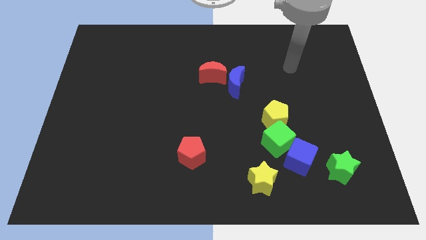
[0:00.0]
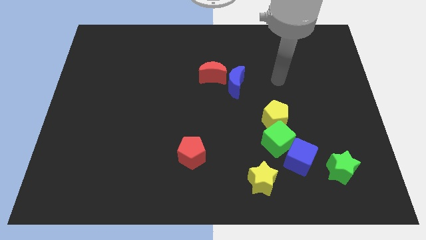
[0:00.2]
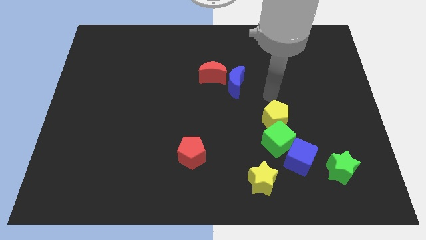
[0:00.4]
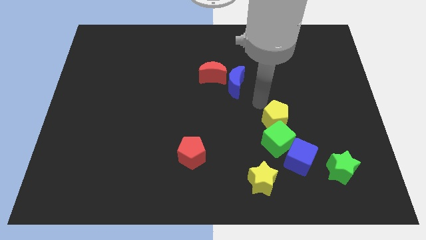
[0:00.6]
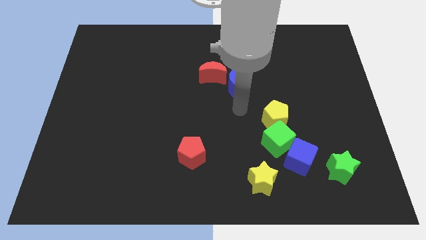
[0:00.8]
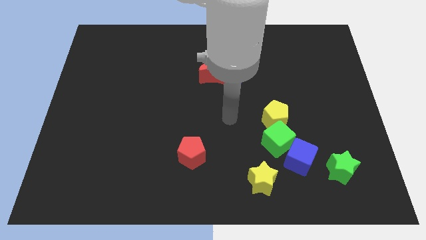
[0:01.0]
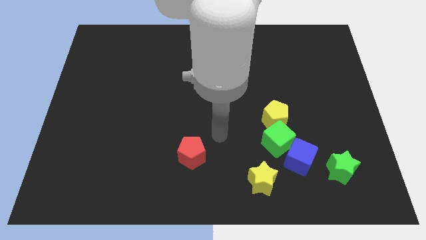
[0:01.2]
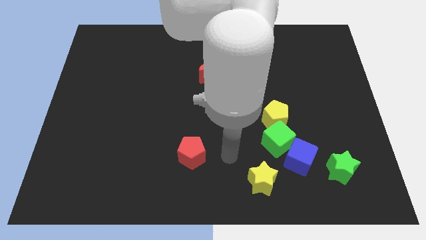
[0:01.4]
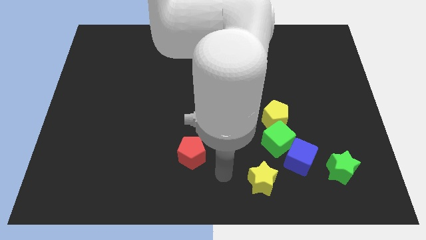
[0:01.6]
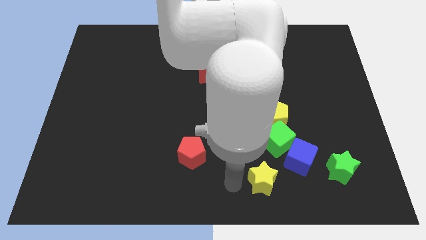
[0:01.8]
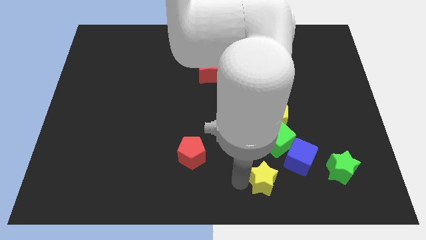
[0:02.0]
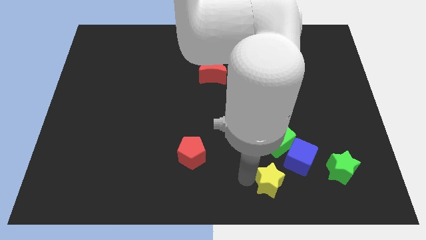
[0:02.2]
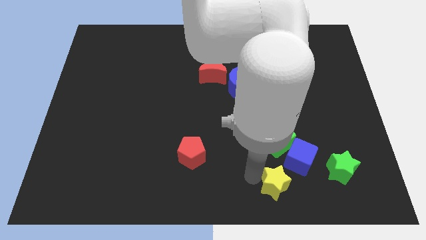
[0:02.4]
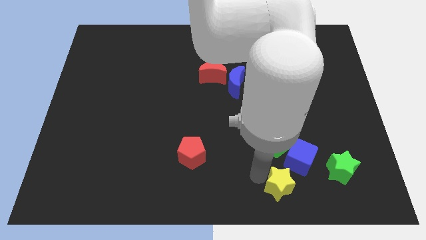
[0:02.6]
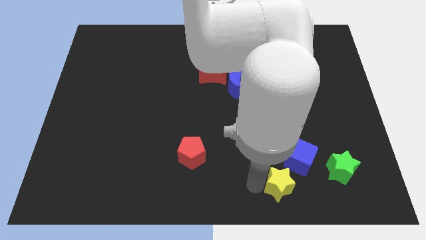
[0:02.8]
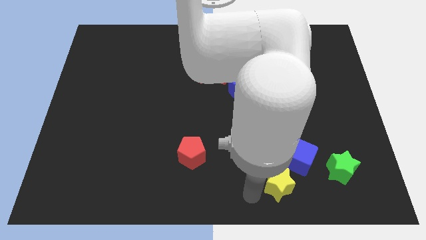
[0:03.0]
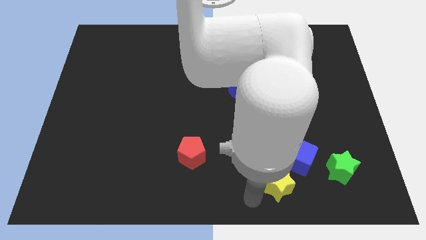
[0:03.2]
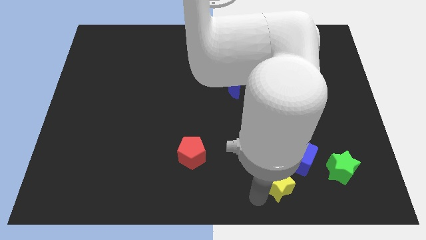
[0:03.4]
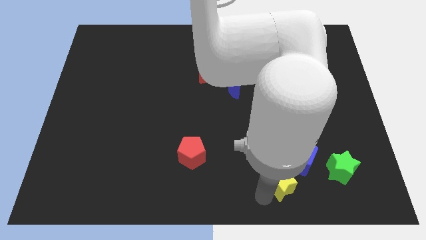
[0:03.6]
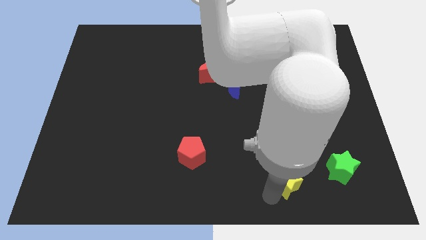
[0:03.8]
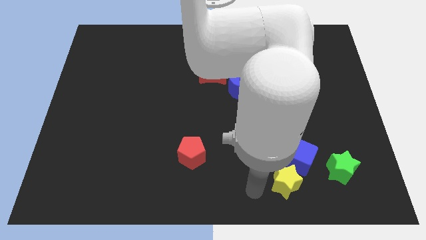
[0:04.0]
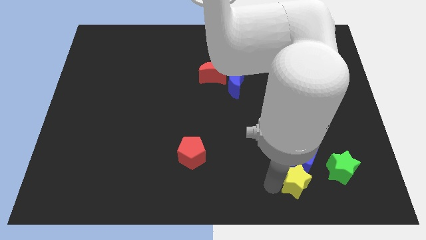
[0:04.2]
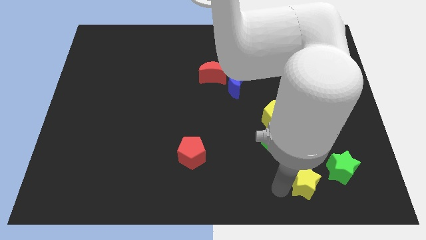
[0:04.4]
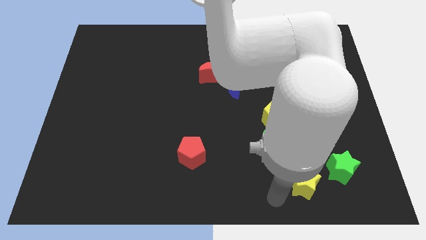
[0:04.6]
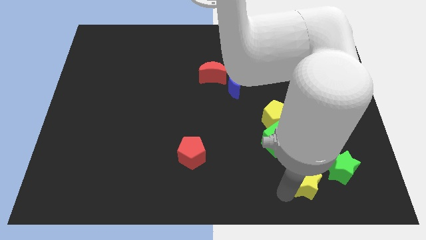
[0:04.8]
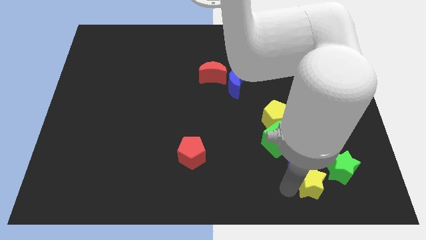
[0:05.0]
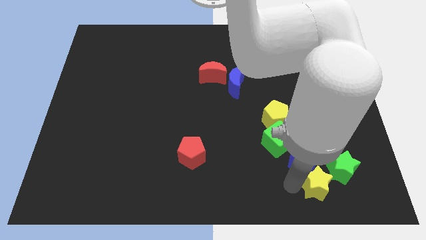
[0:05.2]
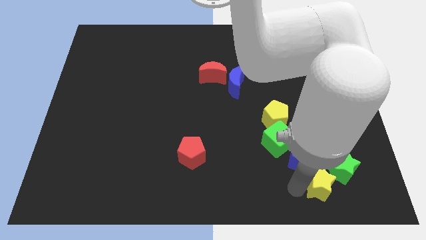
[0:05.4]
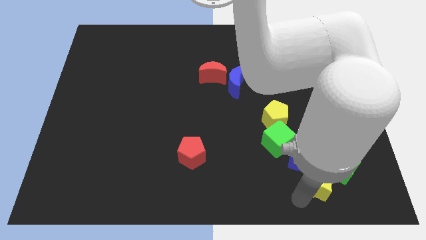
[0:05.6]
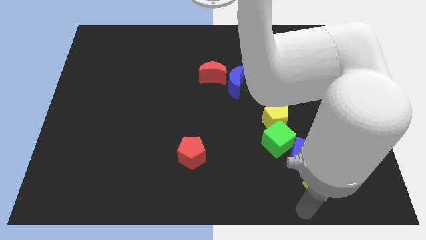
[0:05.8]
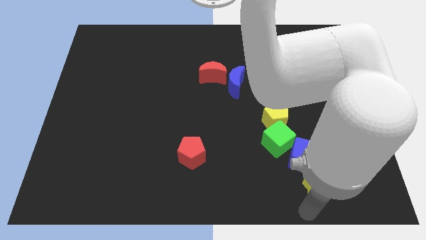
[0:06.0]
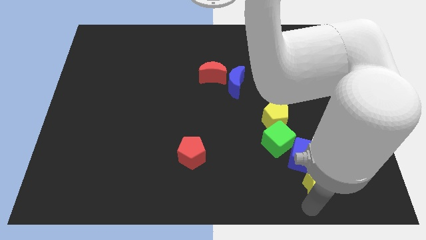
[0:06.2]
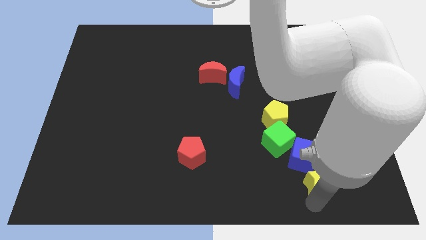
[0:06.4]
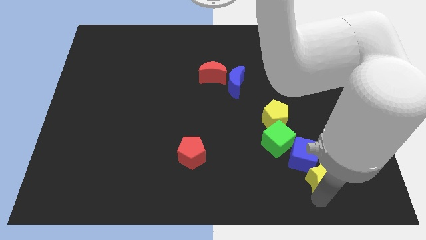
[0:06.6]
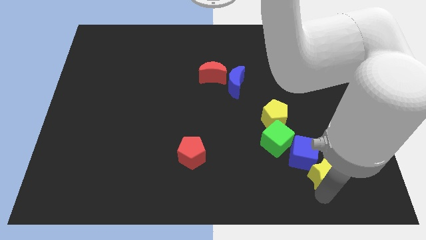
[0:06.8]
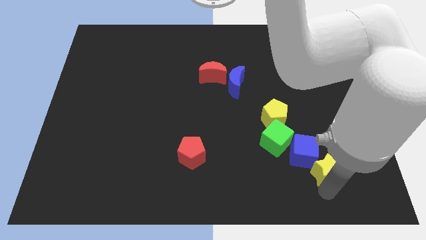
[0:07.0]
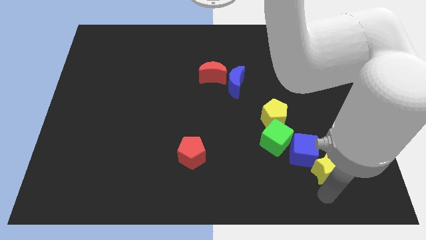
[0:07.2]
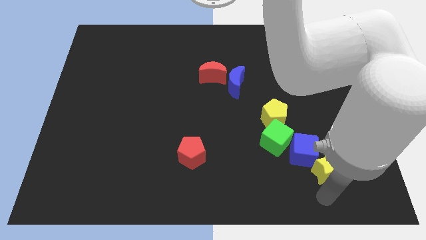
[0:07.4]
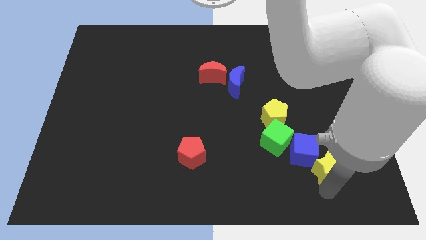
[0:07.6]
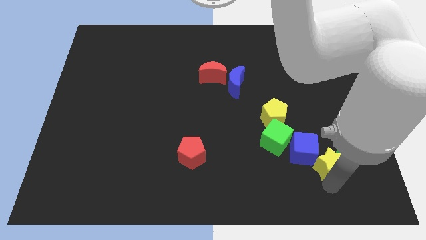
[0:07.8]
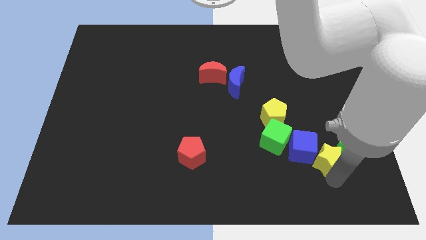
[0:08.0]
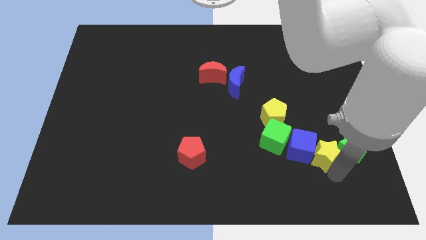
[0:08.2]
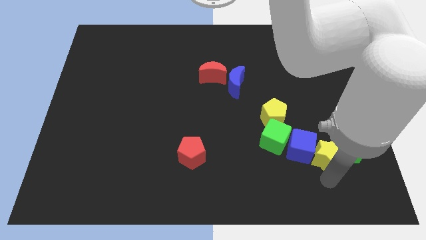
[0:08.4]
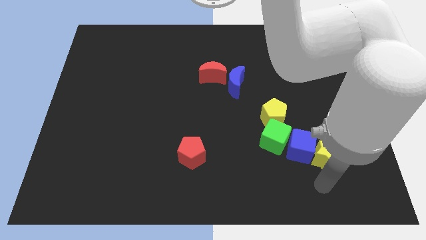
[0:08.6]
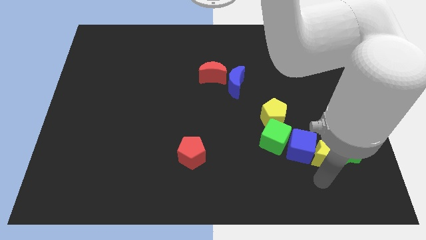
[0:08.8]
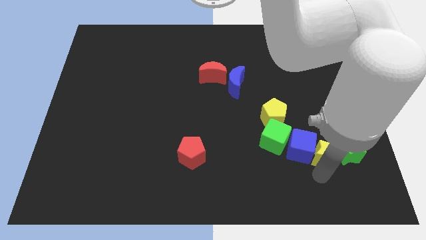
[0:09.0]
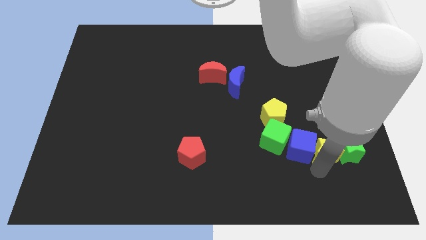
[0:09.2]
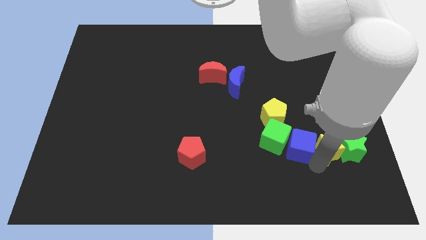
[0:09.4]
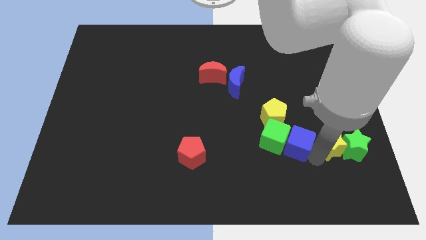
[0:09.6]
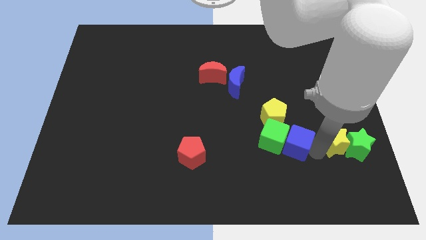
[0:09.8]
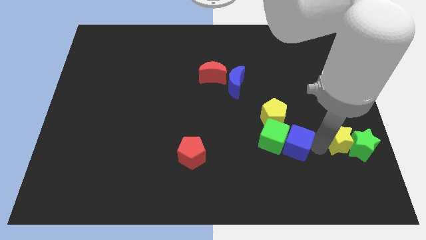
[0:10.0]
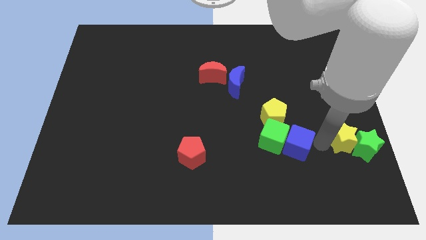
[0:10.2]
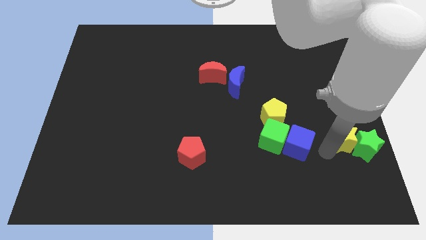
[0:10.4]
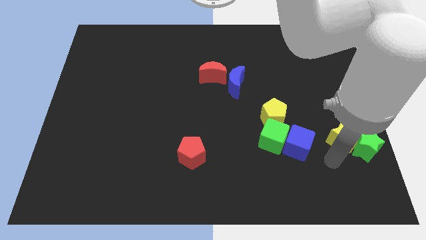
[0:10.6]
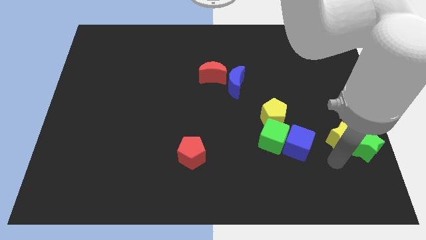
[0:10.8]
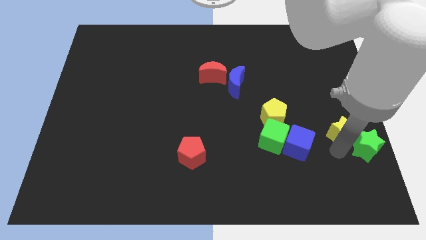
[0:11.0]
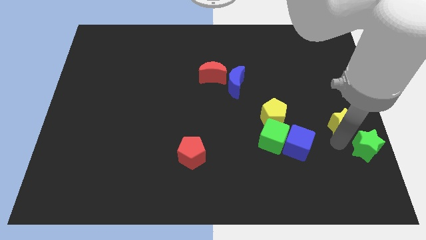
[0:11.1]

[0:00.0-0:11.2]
move the yellow star to the right side
